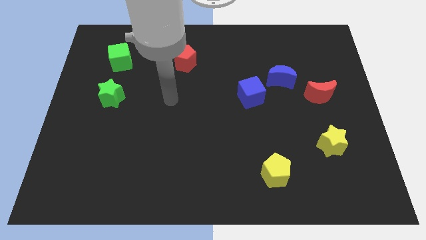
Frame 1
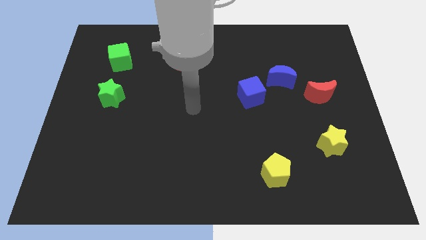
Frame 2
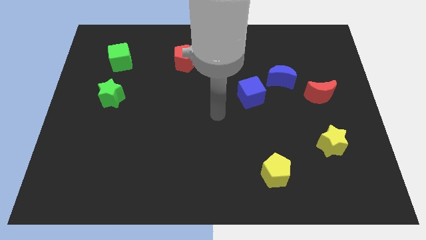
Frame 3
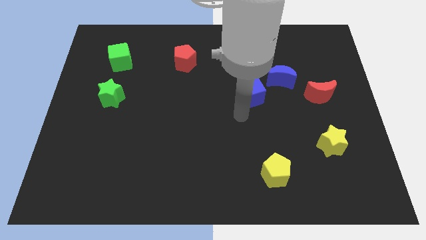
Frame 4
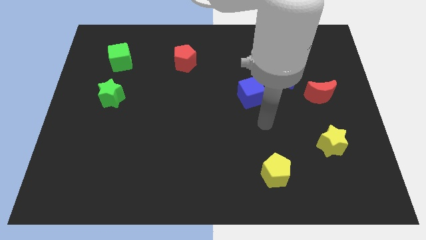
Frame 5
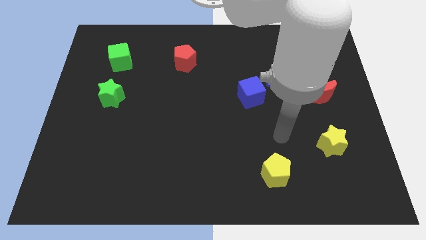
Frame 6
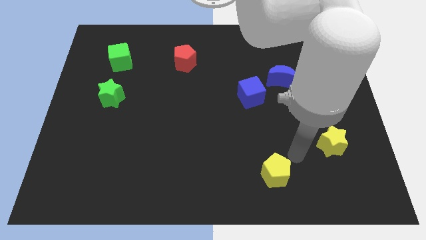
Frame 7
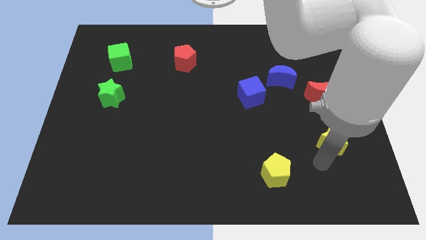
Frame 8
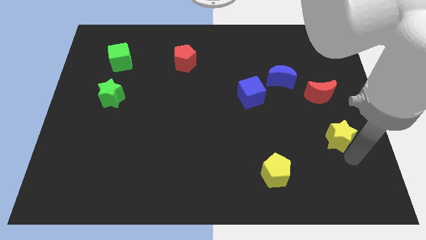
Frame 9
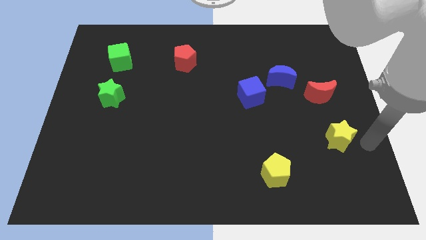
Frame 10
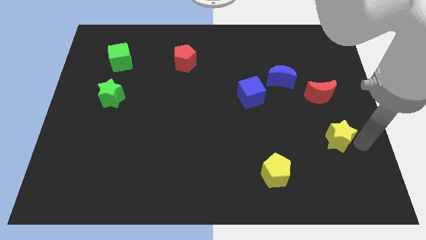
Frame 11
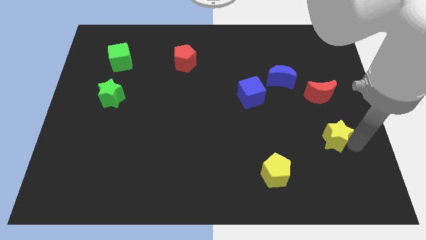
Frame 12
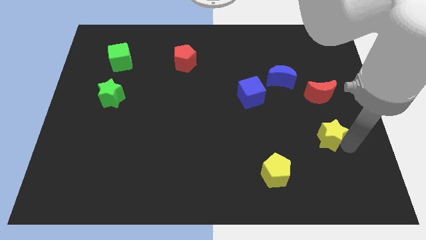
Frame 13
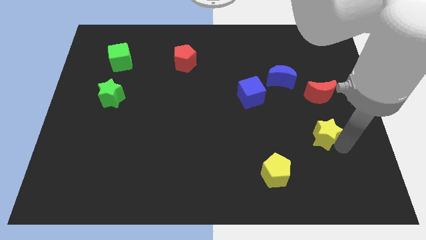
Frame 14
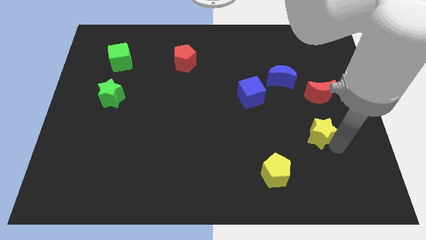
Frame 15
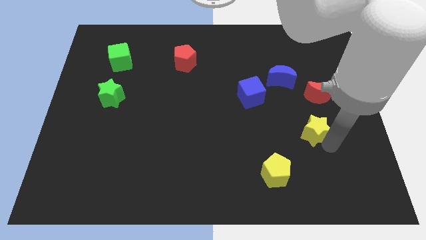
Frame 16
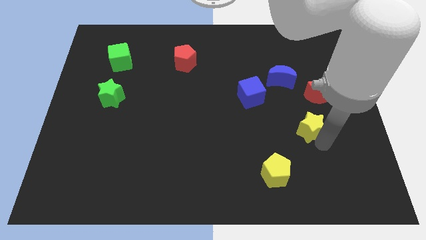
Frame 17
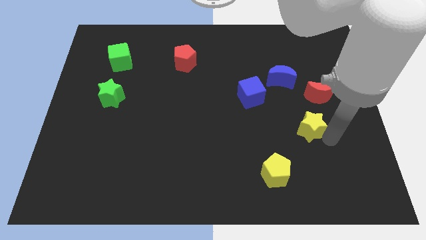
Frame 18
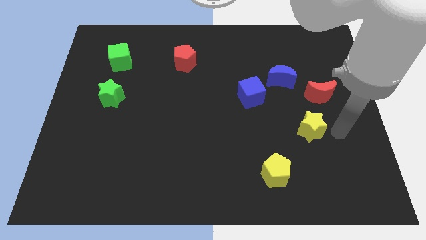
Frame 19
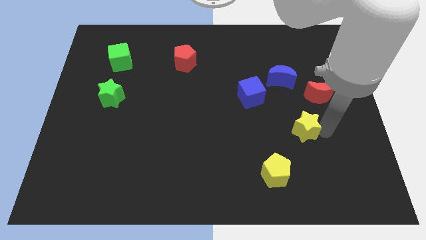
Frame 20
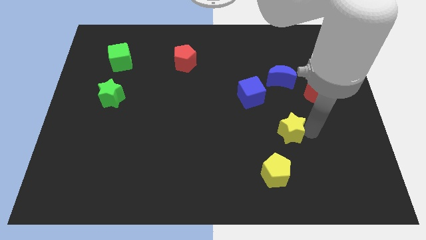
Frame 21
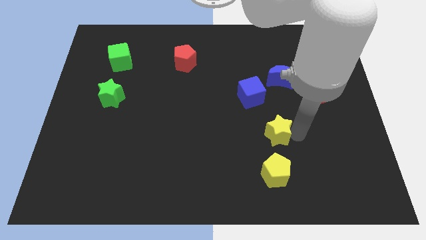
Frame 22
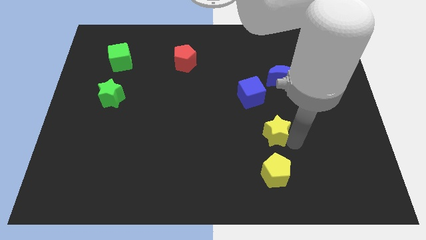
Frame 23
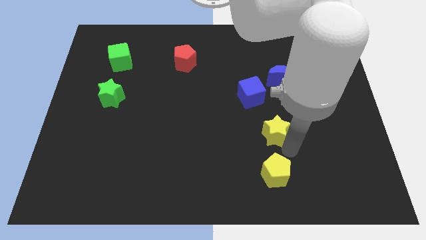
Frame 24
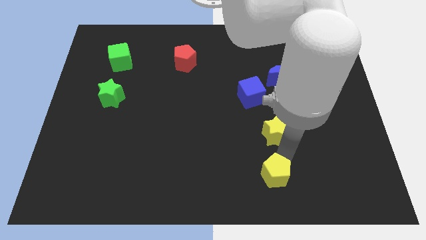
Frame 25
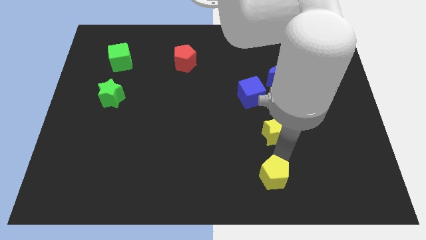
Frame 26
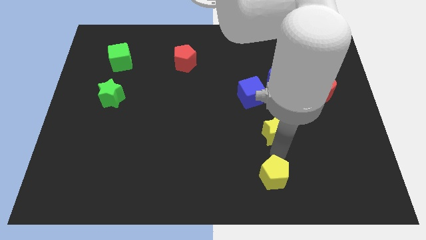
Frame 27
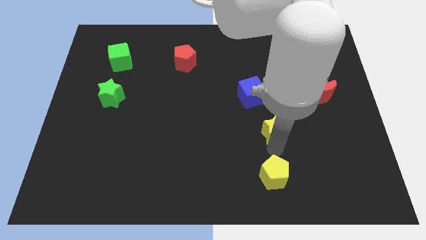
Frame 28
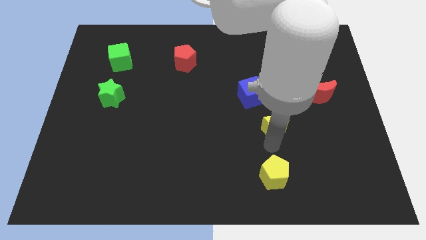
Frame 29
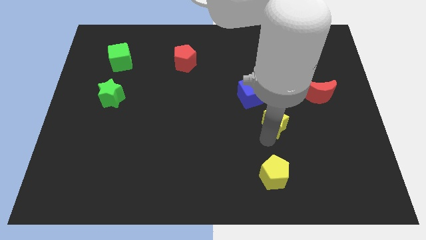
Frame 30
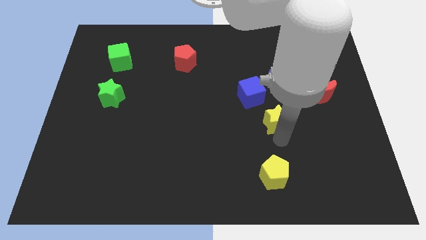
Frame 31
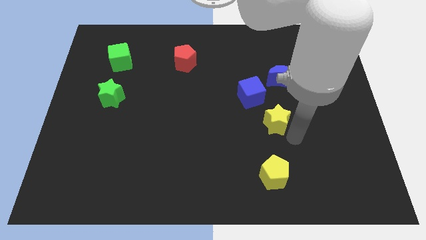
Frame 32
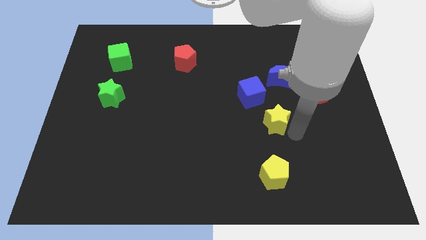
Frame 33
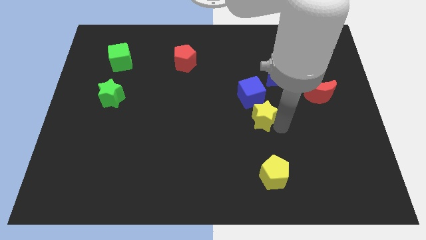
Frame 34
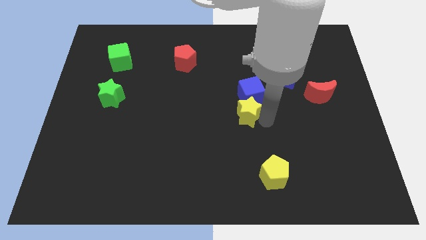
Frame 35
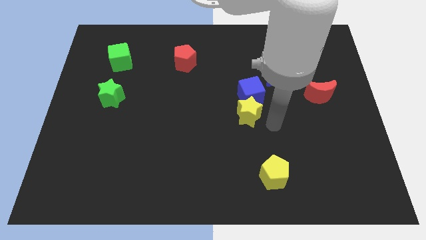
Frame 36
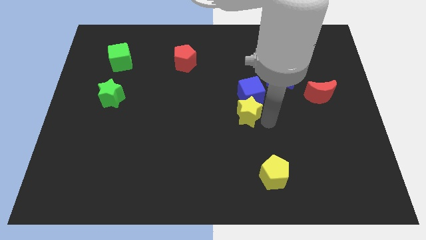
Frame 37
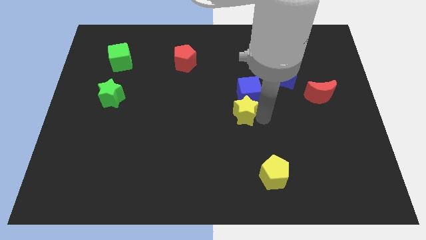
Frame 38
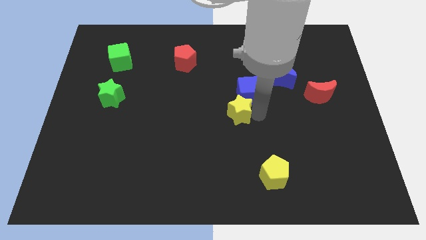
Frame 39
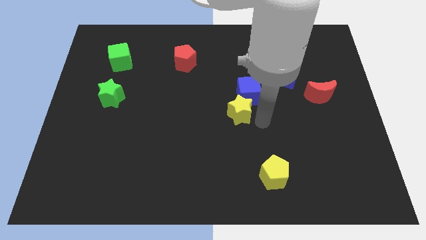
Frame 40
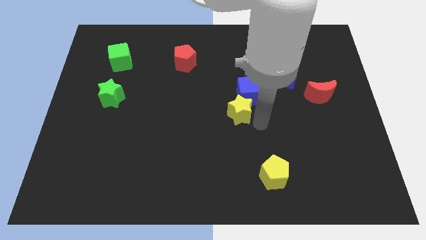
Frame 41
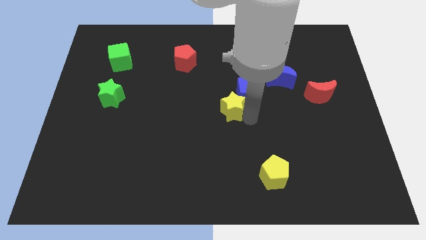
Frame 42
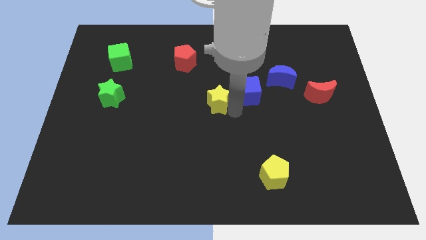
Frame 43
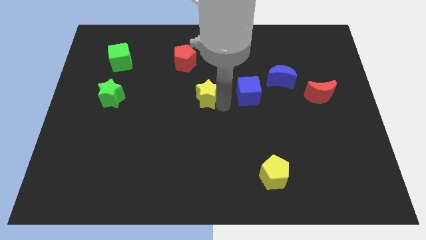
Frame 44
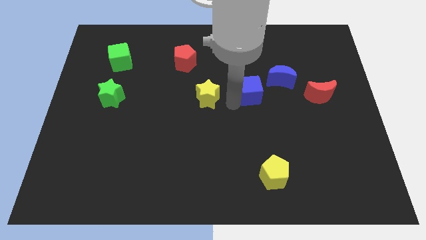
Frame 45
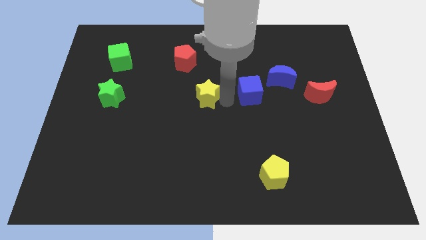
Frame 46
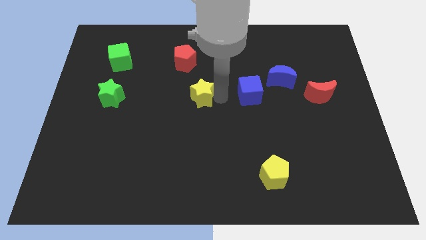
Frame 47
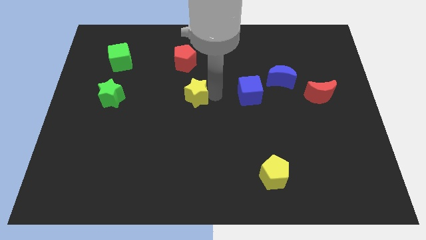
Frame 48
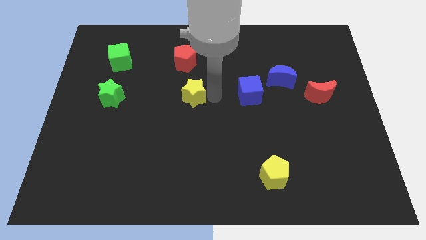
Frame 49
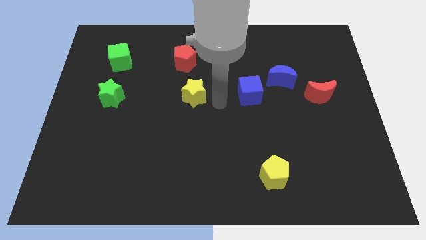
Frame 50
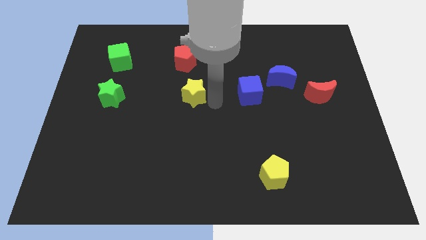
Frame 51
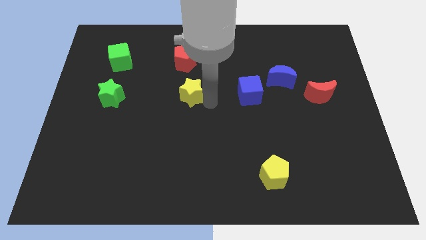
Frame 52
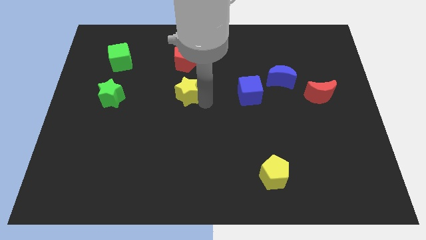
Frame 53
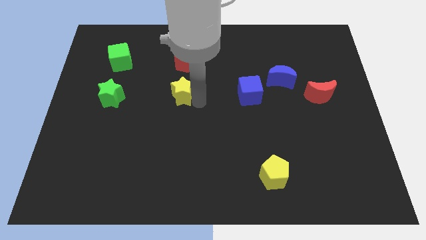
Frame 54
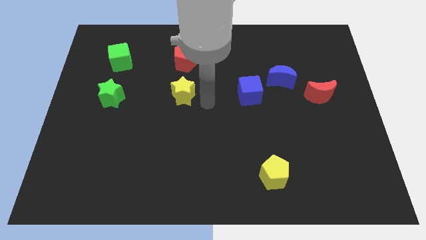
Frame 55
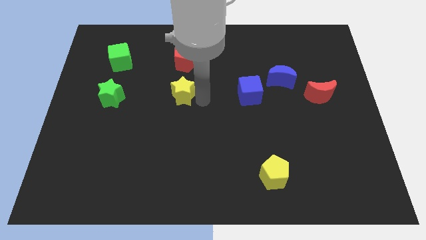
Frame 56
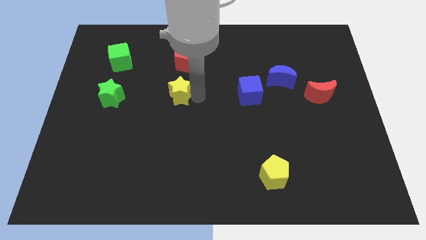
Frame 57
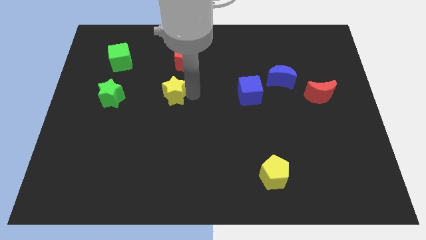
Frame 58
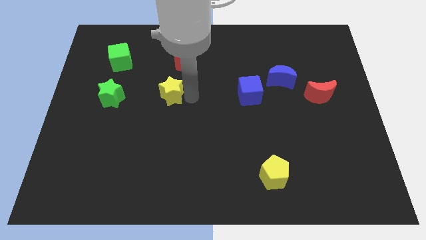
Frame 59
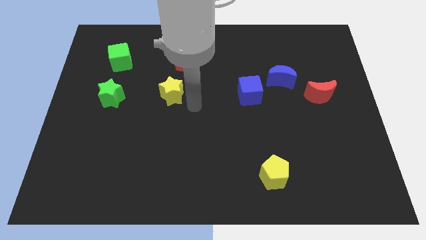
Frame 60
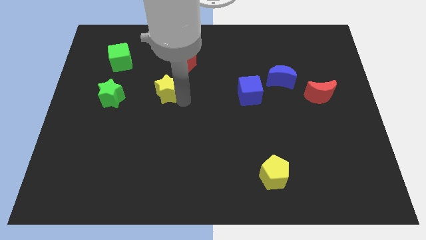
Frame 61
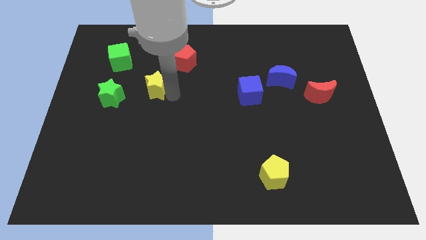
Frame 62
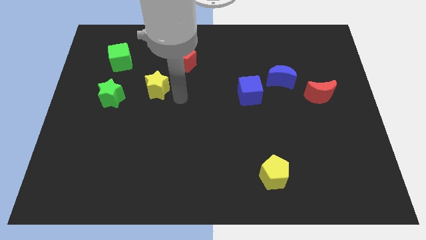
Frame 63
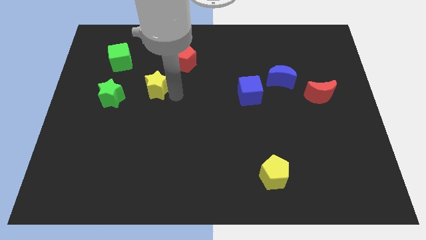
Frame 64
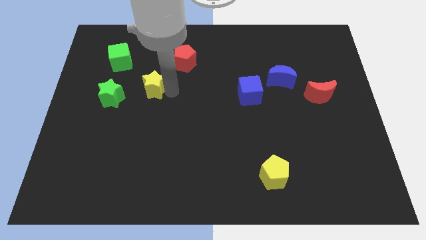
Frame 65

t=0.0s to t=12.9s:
push the yellow star diagonally up and to the right of the green star
